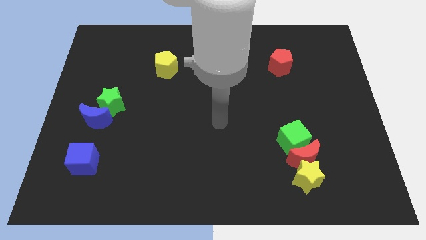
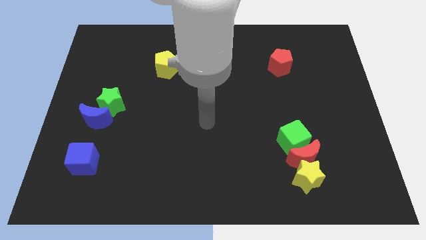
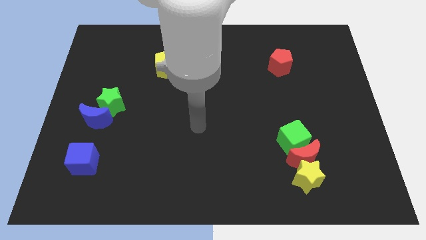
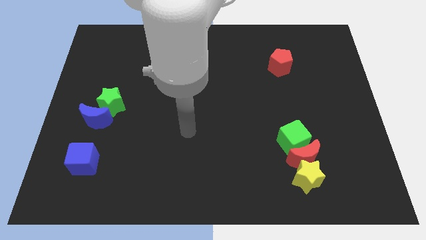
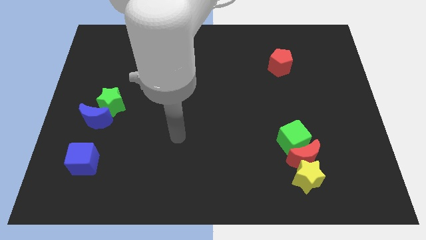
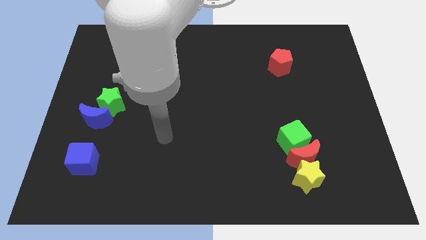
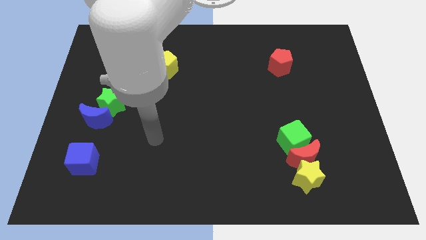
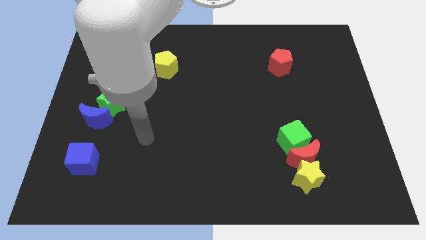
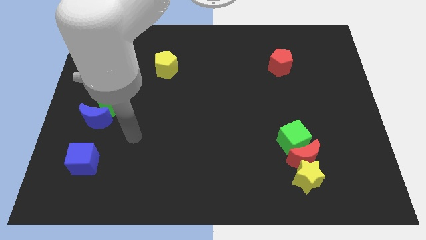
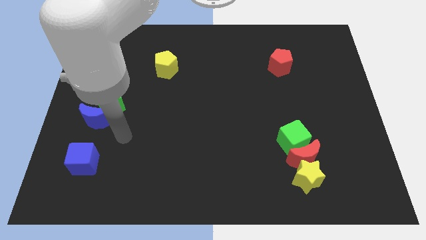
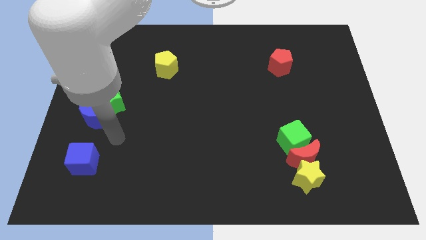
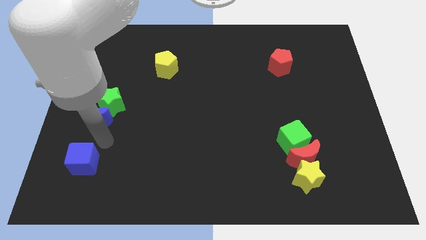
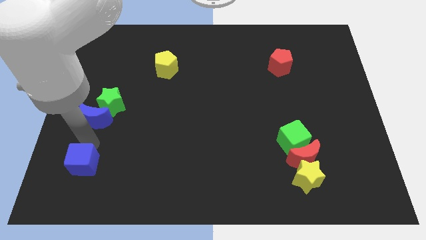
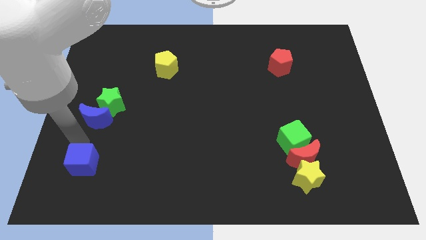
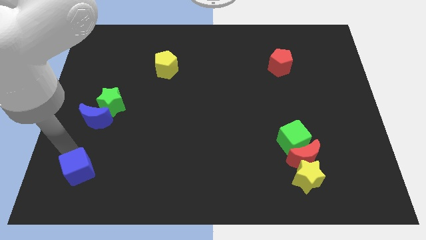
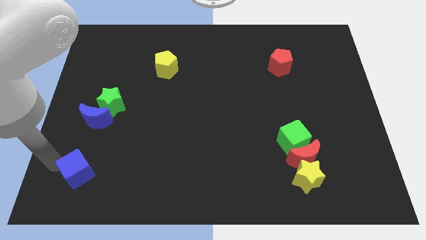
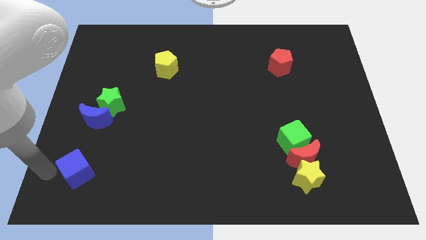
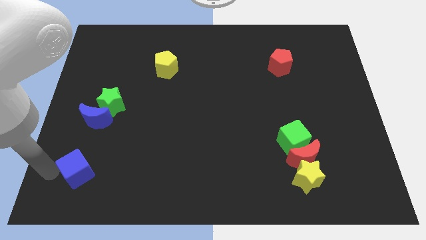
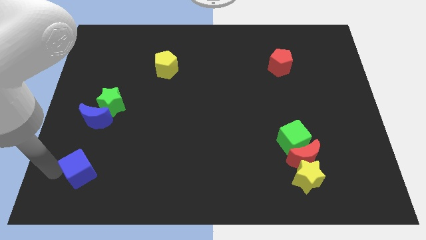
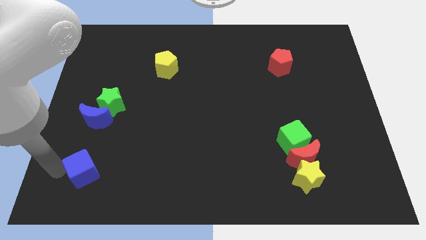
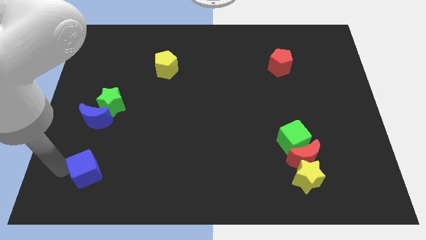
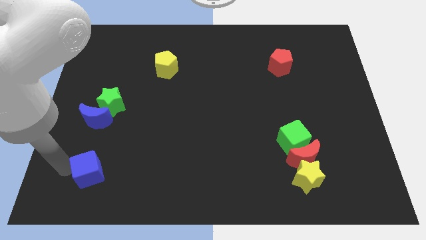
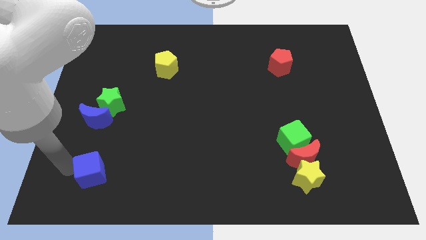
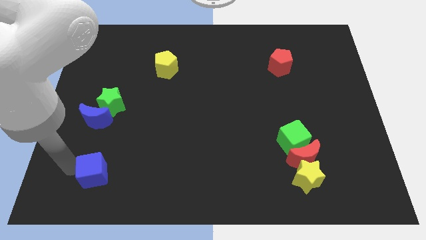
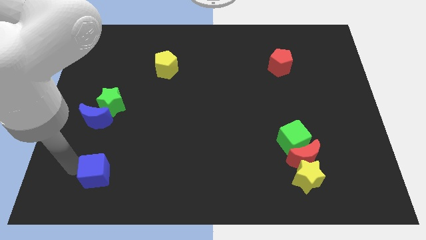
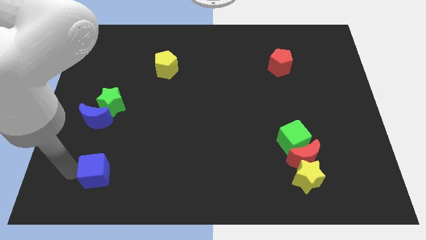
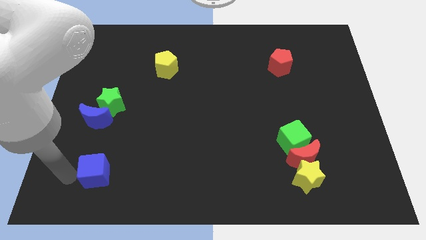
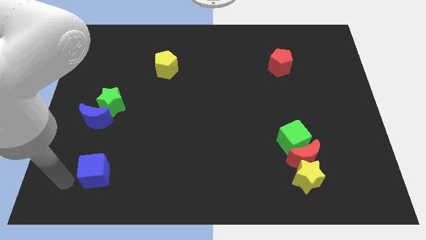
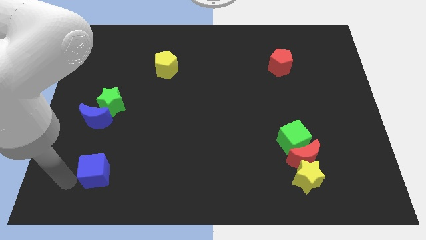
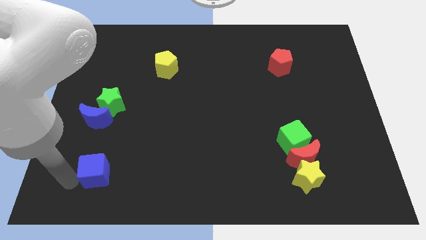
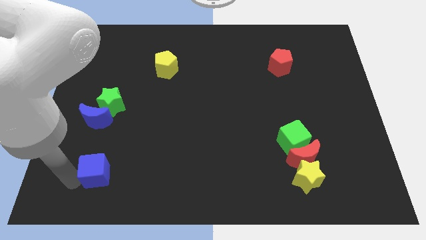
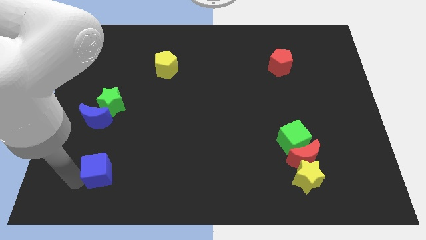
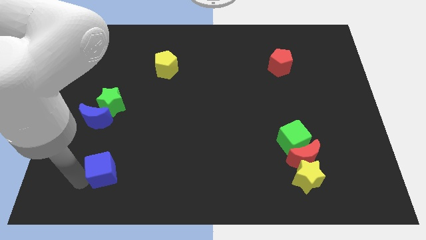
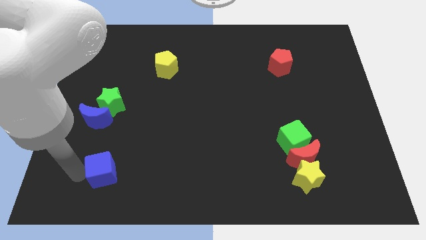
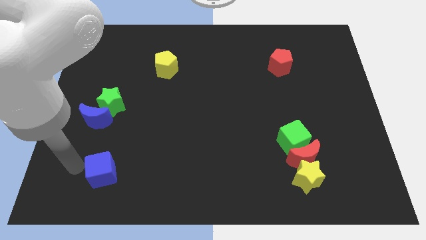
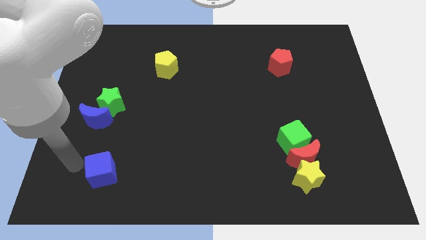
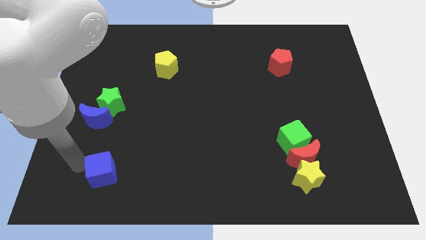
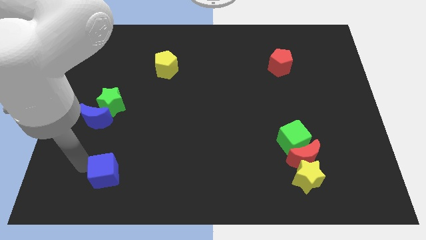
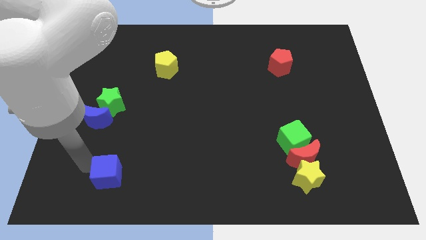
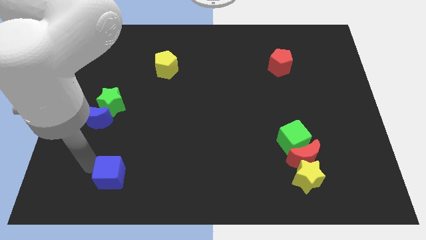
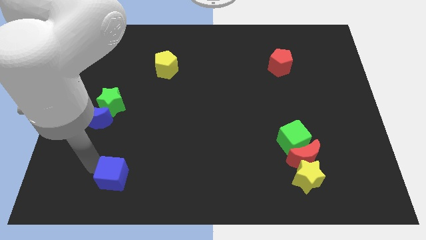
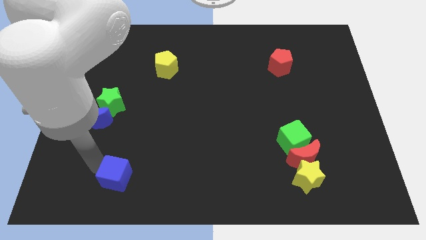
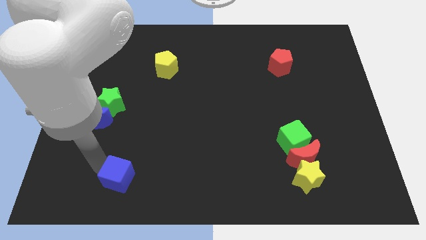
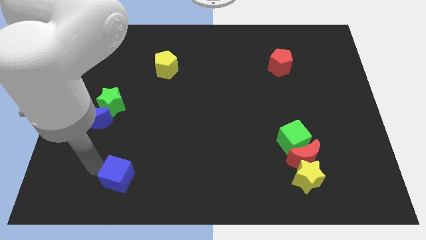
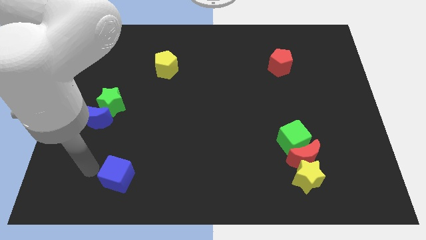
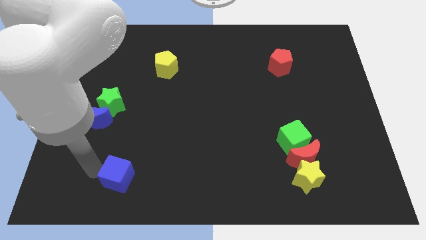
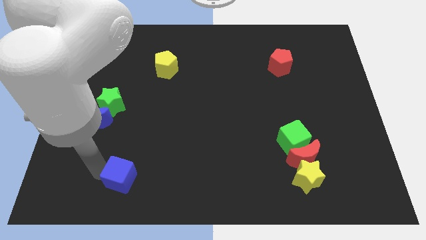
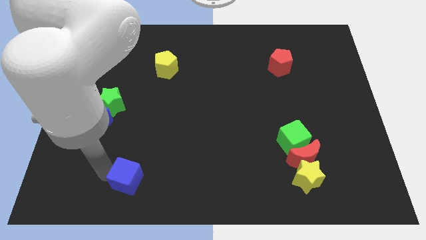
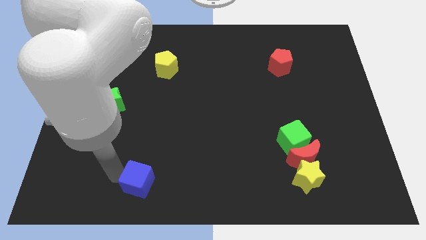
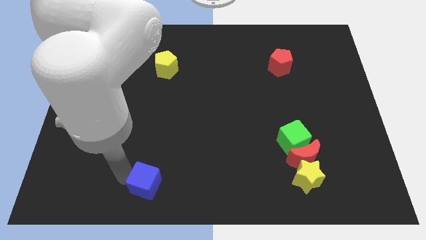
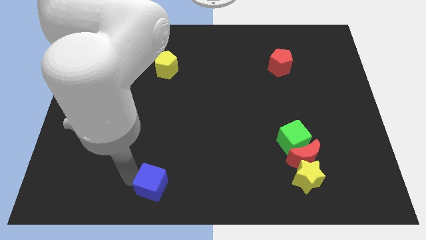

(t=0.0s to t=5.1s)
slide the blue cube to the bottom side

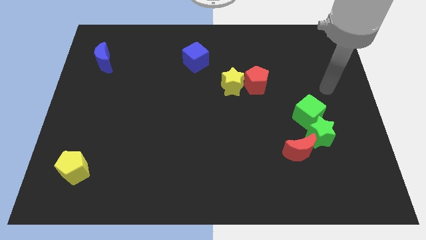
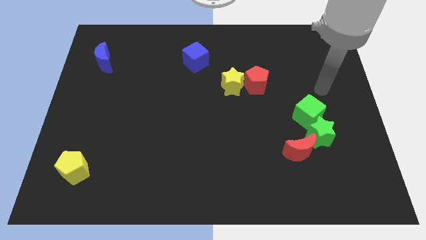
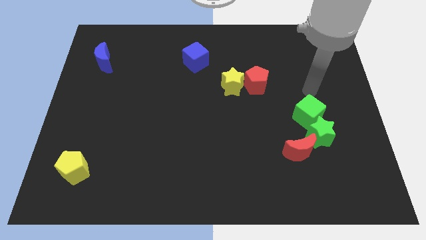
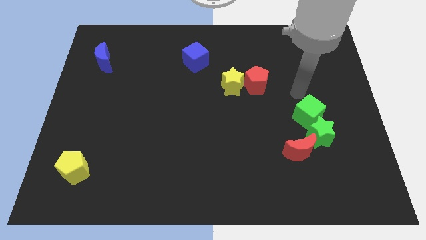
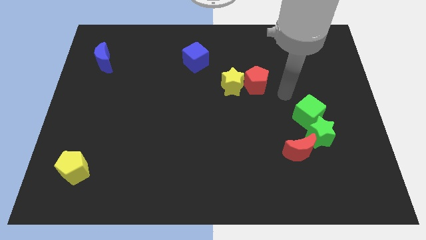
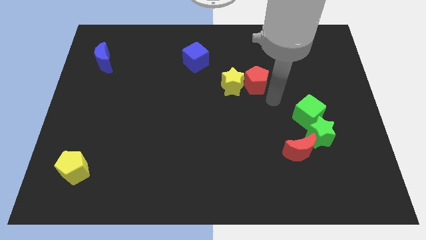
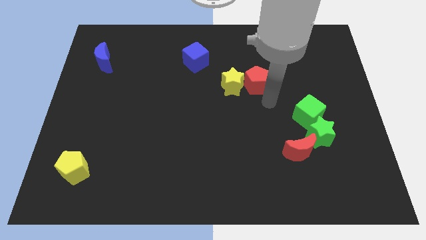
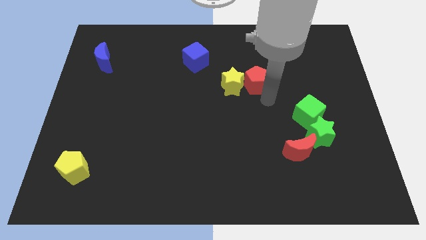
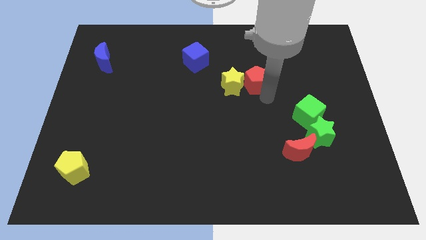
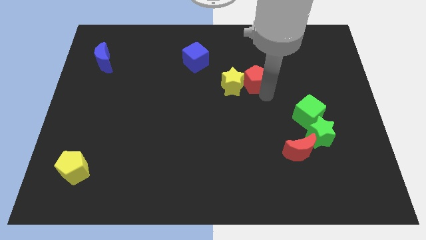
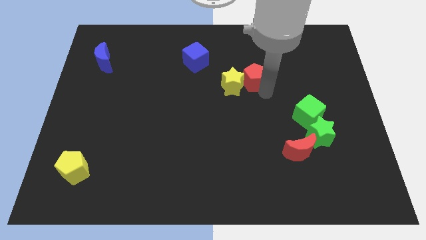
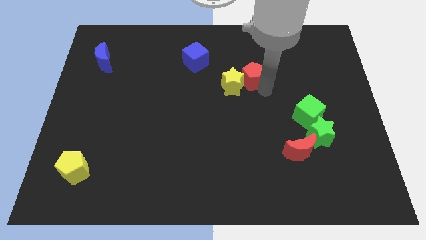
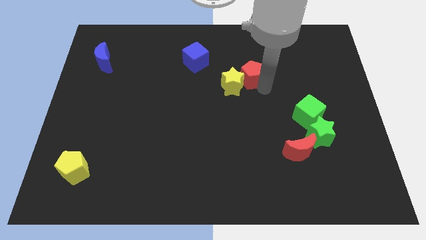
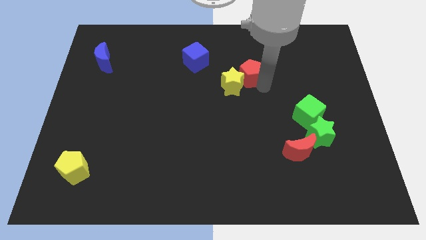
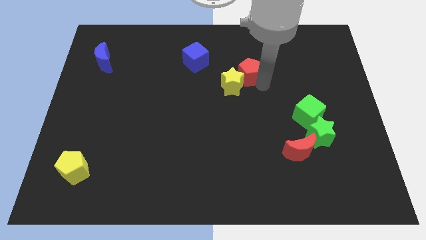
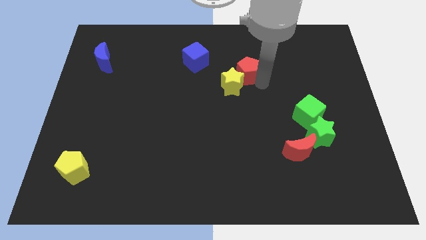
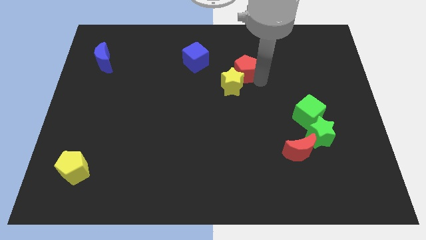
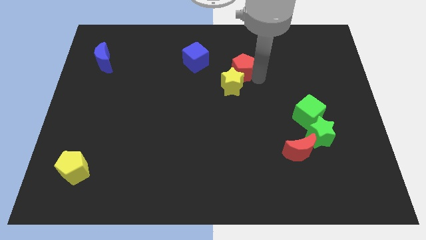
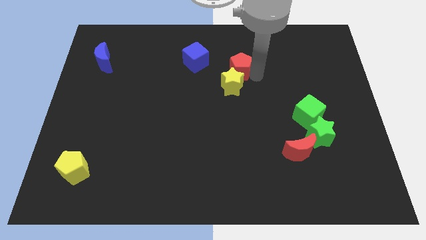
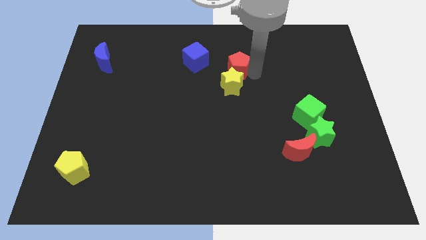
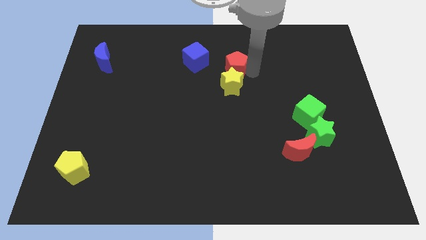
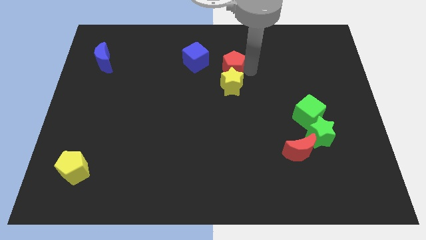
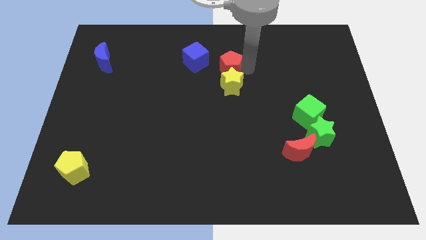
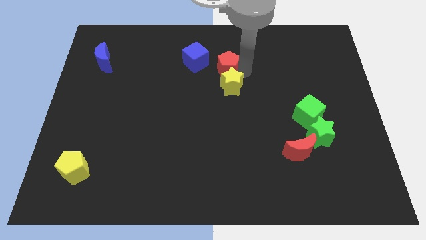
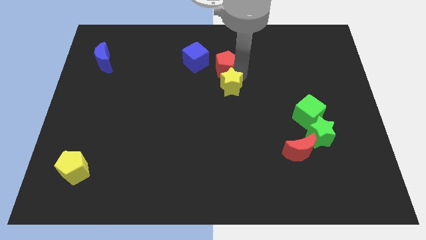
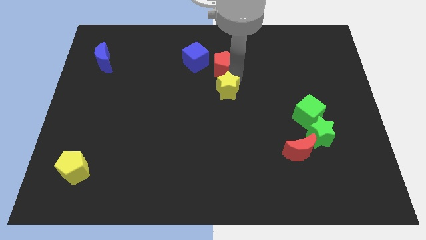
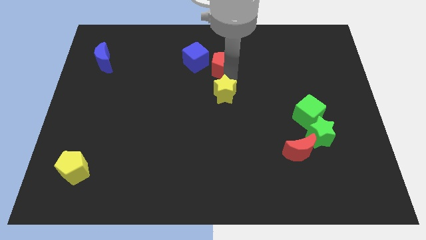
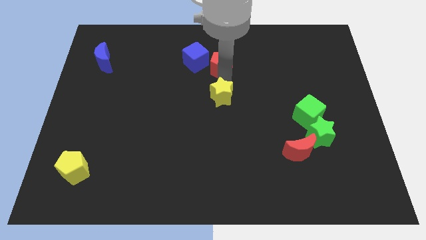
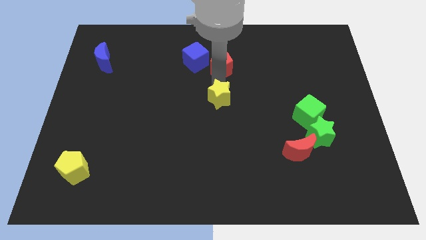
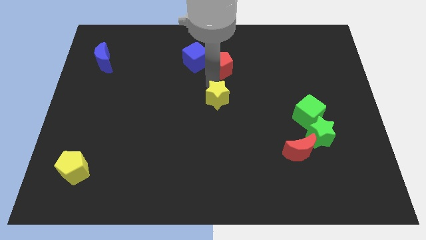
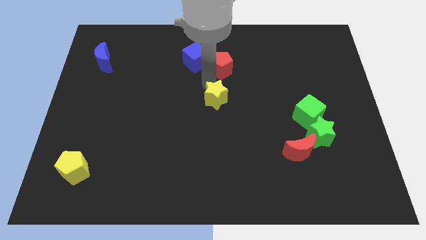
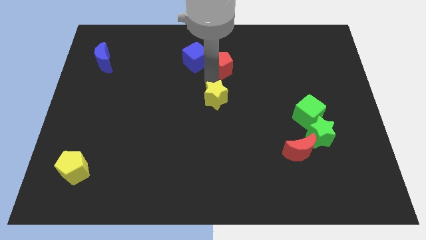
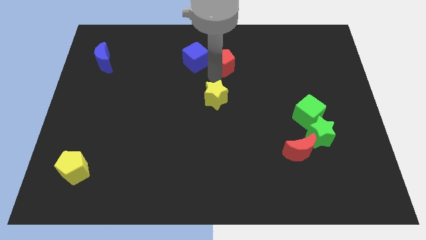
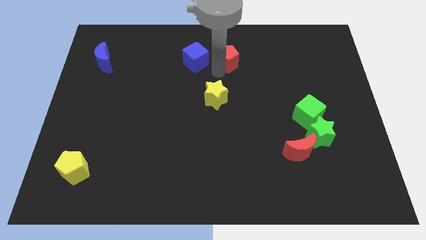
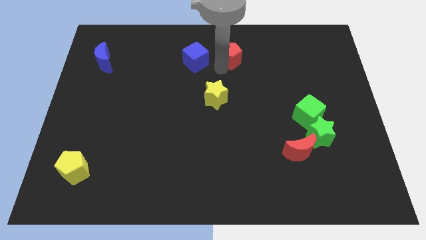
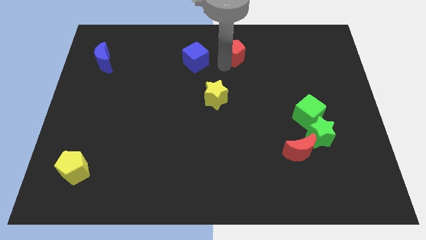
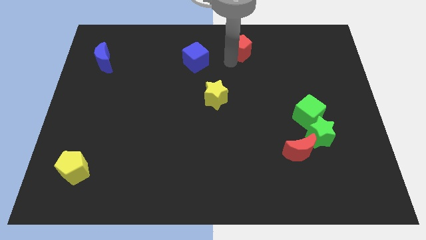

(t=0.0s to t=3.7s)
slide the red pentagon to the towards your base
